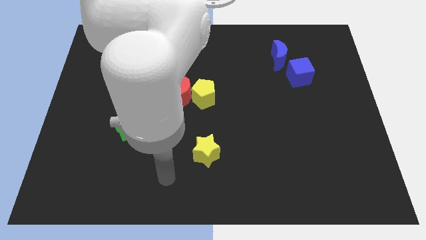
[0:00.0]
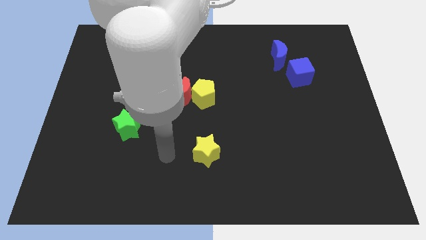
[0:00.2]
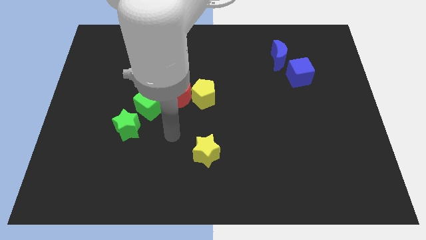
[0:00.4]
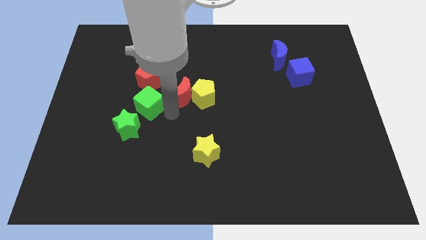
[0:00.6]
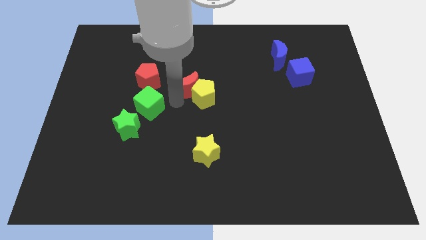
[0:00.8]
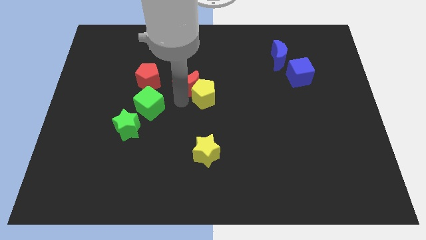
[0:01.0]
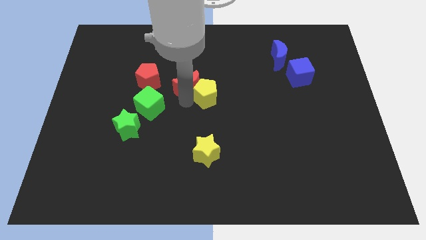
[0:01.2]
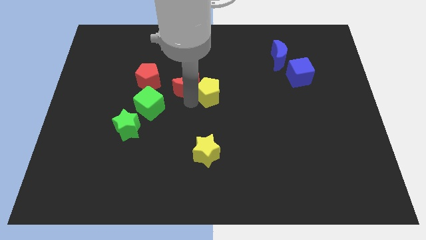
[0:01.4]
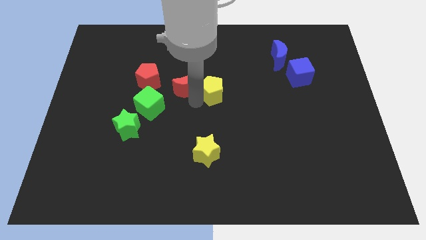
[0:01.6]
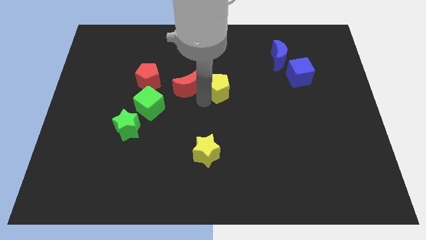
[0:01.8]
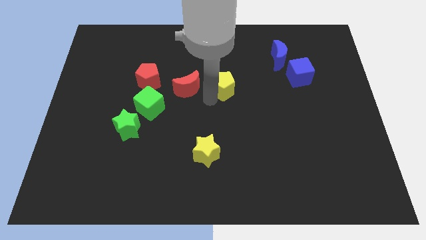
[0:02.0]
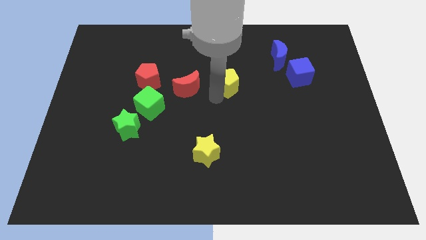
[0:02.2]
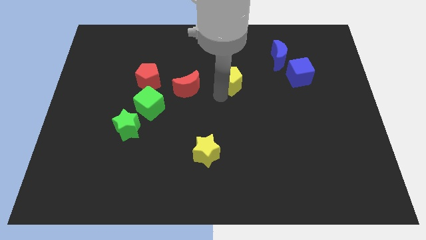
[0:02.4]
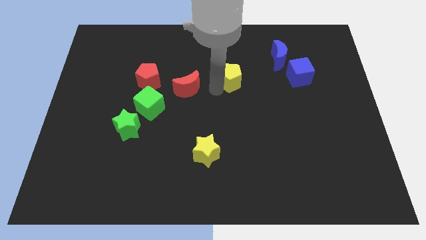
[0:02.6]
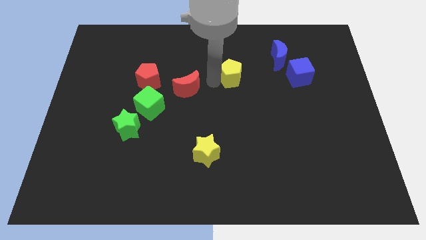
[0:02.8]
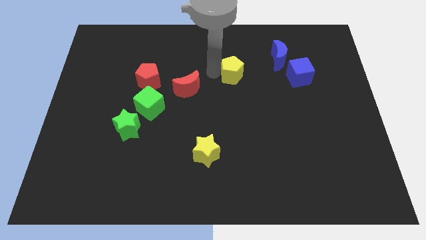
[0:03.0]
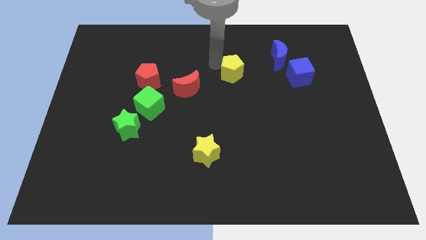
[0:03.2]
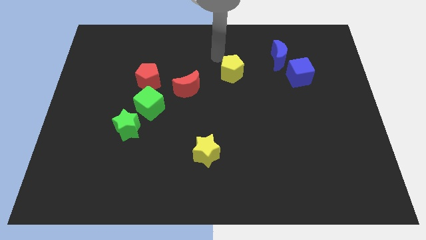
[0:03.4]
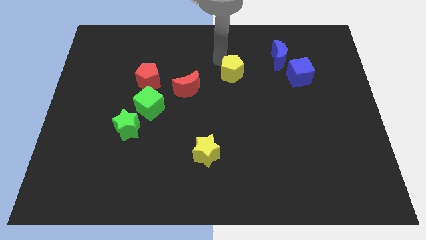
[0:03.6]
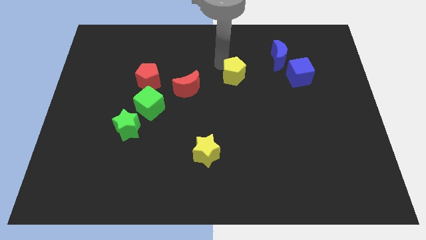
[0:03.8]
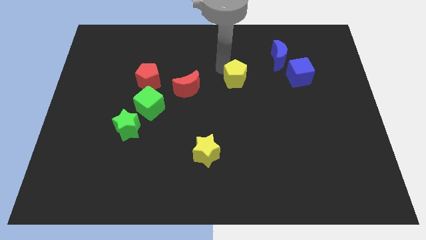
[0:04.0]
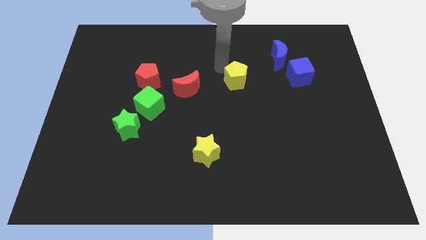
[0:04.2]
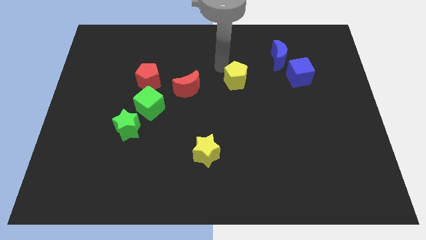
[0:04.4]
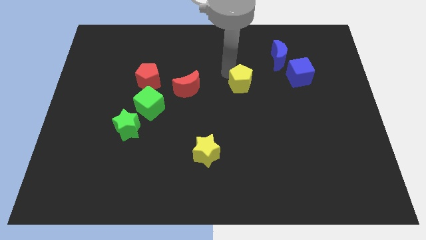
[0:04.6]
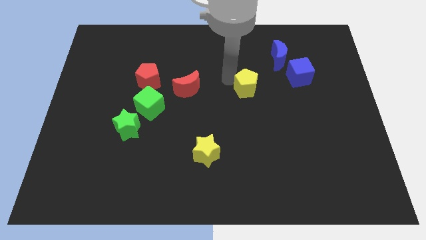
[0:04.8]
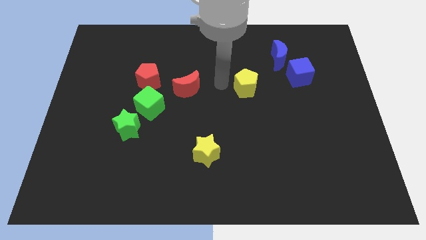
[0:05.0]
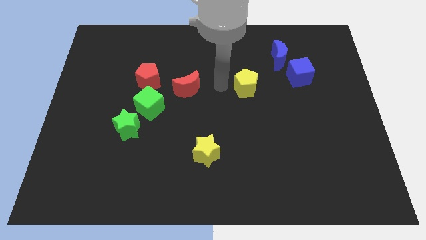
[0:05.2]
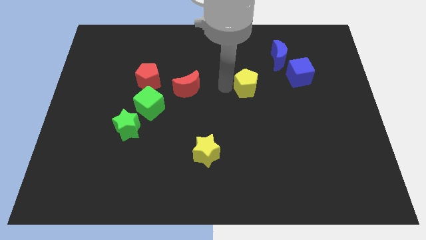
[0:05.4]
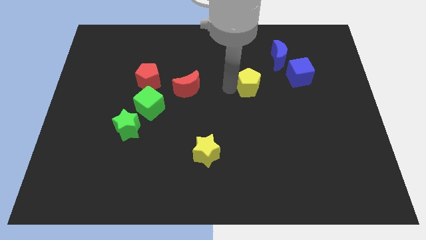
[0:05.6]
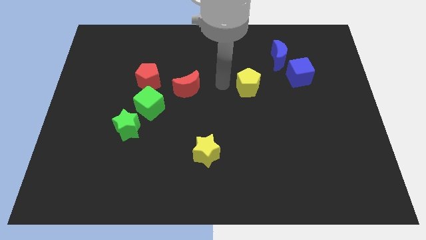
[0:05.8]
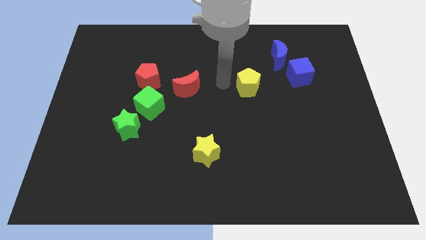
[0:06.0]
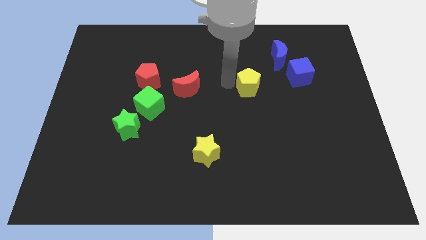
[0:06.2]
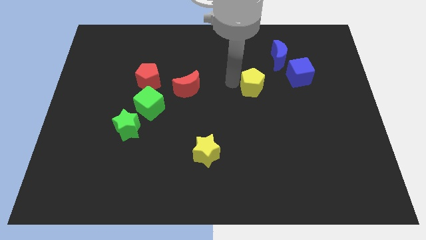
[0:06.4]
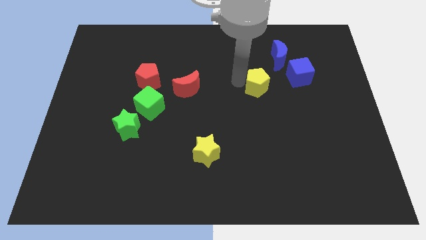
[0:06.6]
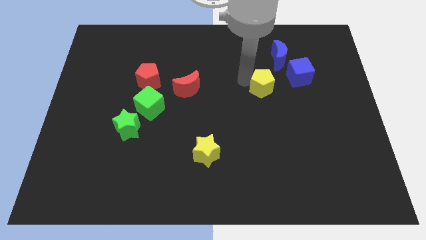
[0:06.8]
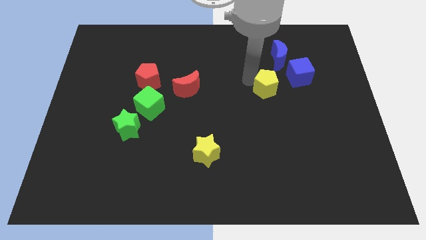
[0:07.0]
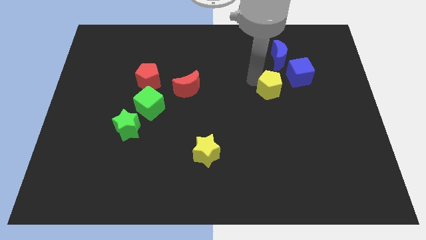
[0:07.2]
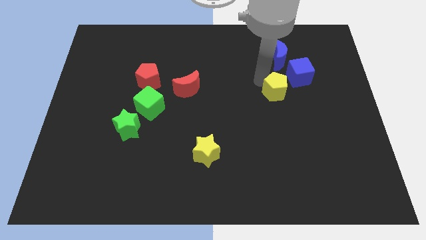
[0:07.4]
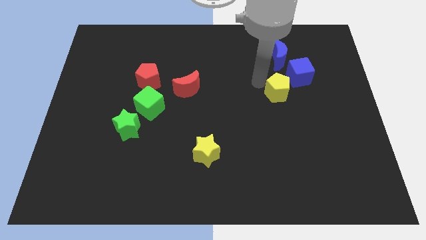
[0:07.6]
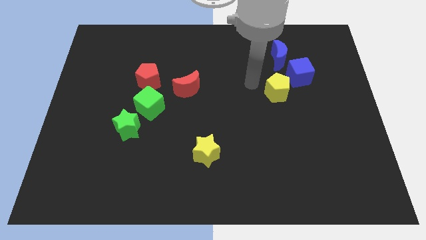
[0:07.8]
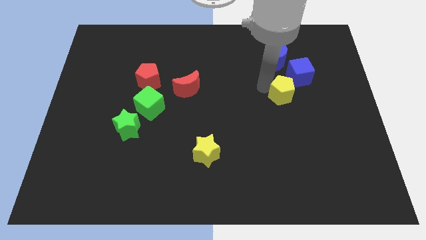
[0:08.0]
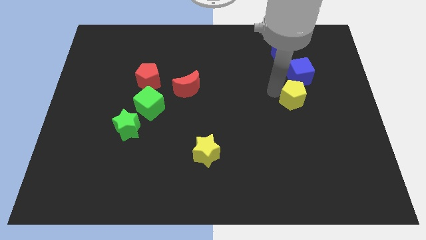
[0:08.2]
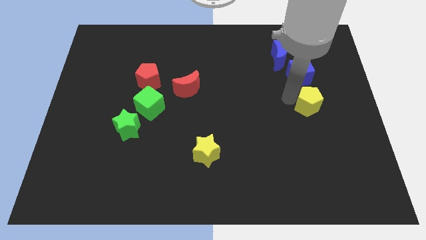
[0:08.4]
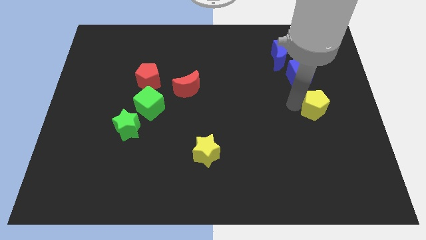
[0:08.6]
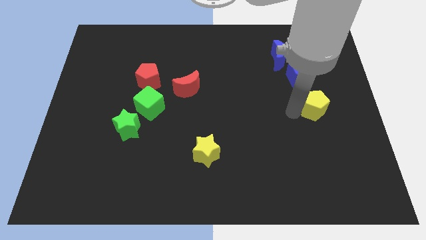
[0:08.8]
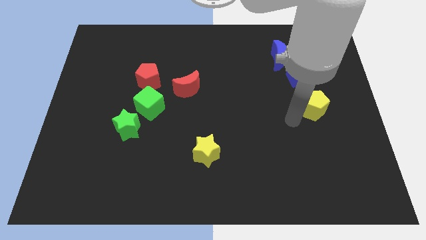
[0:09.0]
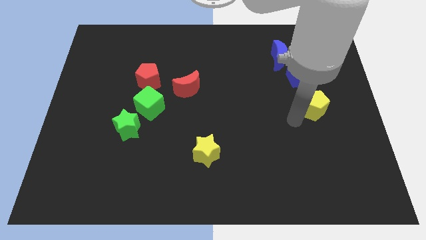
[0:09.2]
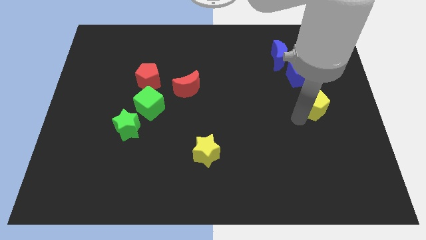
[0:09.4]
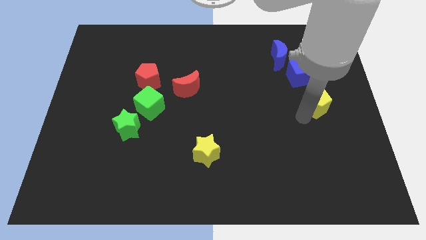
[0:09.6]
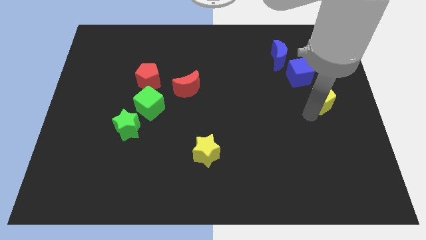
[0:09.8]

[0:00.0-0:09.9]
push the yellow pentagon to the center right

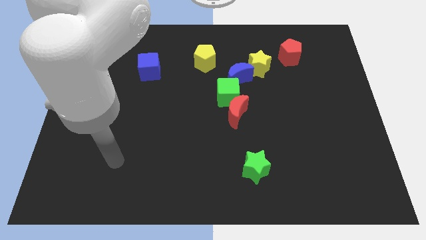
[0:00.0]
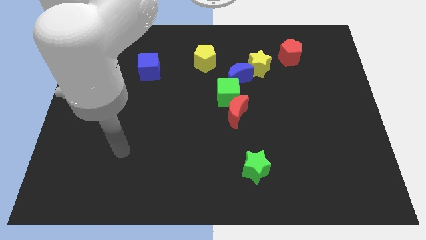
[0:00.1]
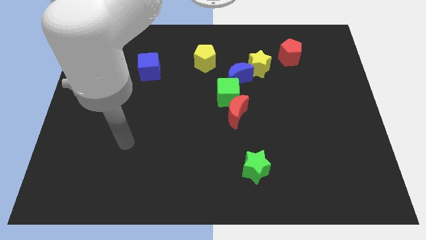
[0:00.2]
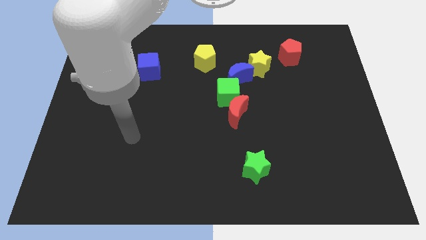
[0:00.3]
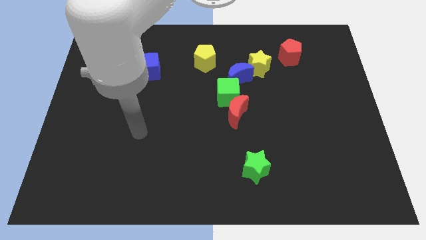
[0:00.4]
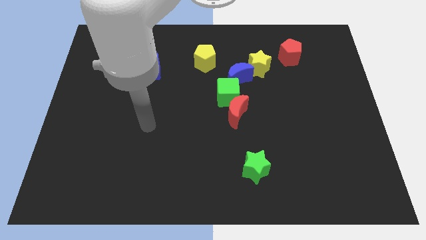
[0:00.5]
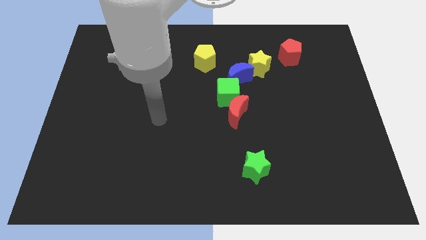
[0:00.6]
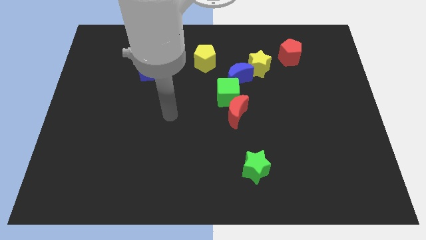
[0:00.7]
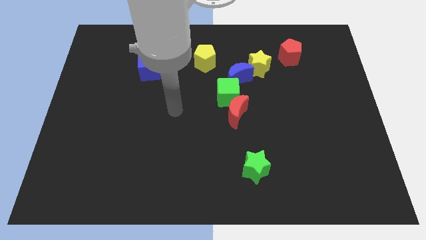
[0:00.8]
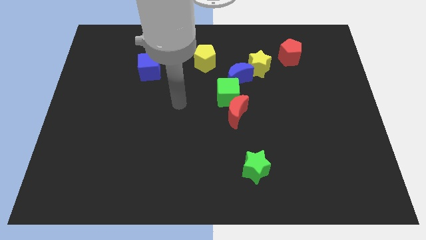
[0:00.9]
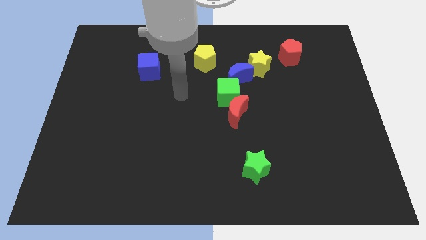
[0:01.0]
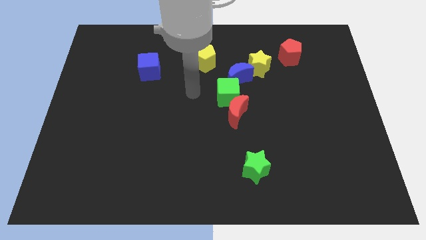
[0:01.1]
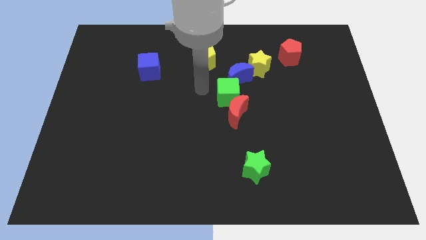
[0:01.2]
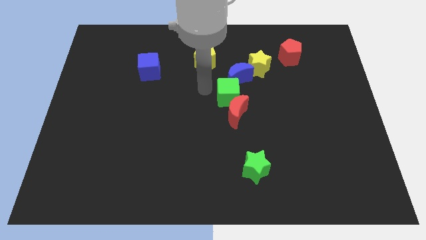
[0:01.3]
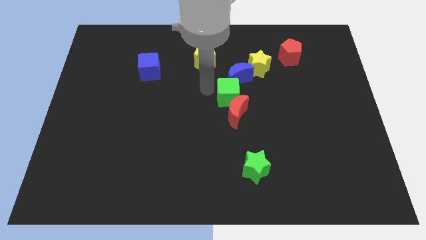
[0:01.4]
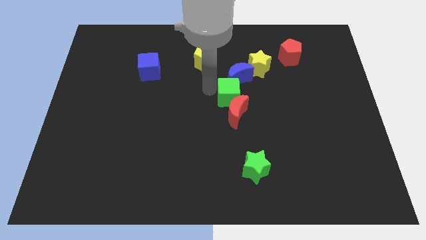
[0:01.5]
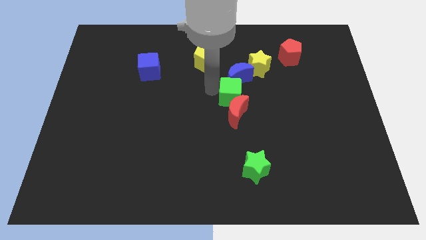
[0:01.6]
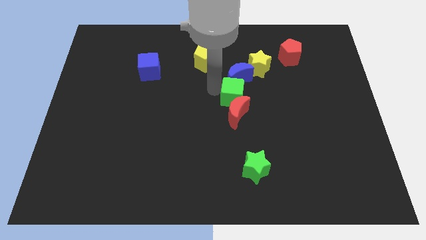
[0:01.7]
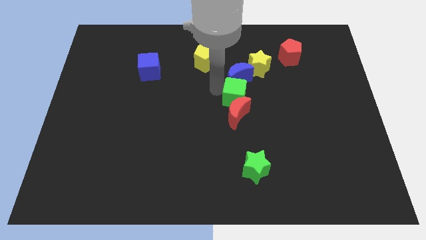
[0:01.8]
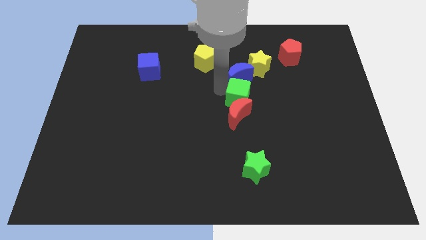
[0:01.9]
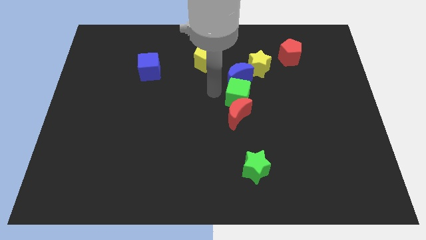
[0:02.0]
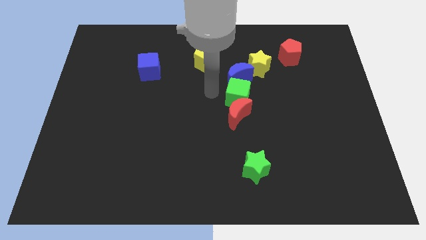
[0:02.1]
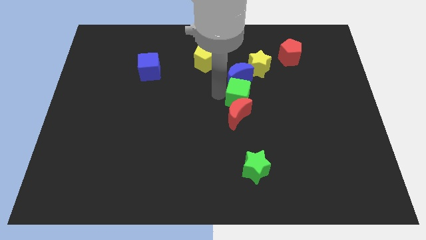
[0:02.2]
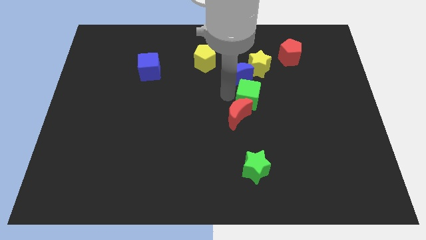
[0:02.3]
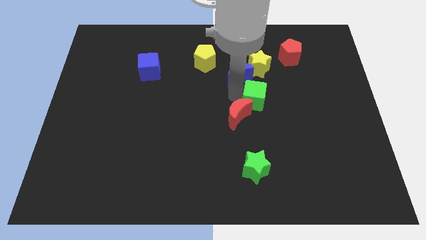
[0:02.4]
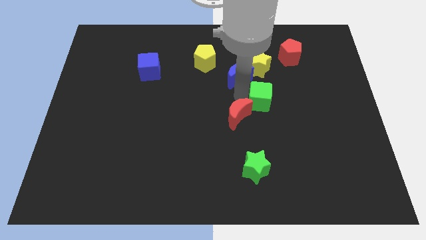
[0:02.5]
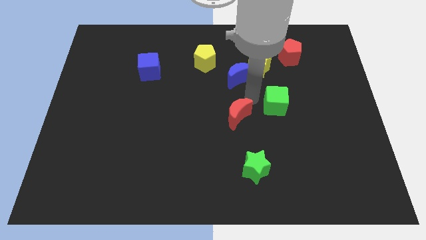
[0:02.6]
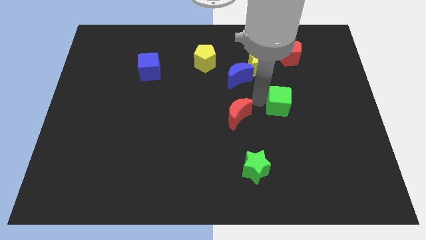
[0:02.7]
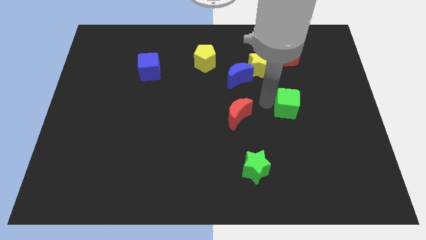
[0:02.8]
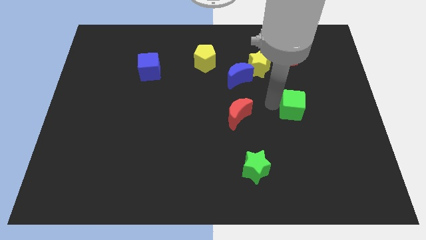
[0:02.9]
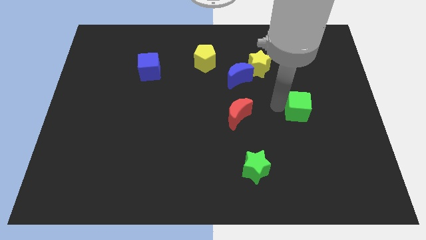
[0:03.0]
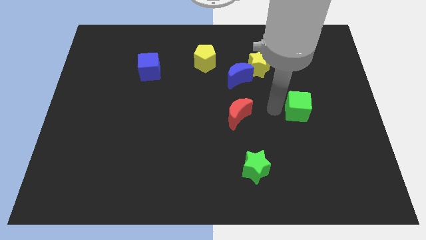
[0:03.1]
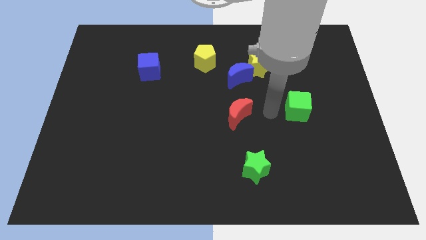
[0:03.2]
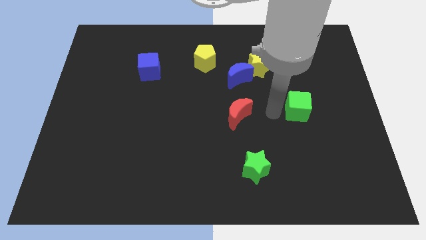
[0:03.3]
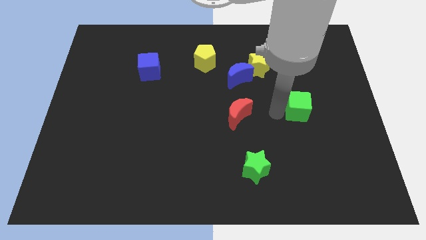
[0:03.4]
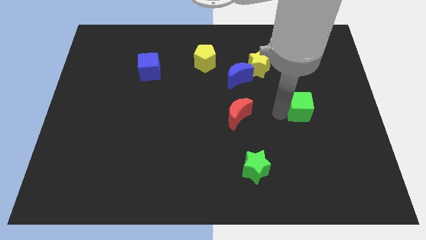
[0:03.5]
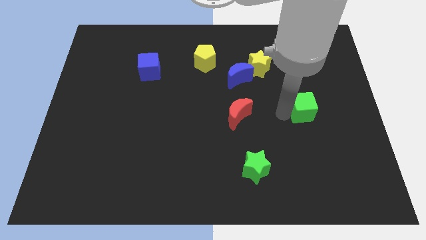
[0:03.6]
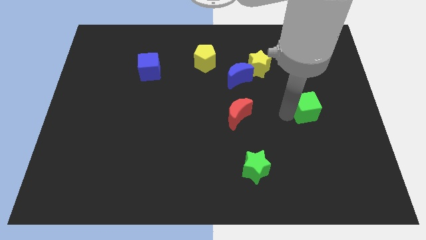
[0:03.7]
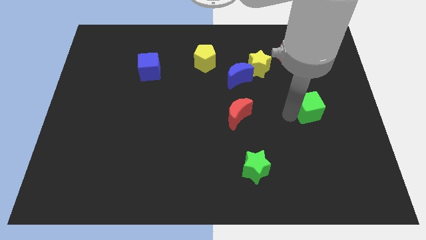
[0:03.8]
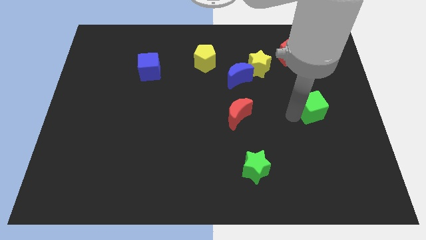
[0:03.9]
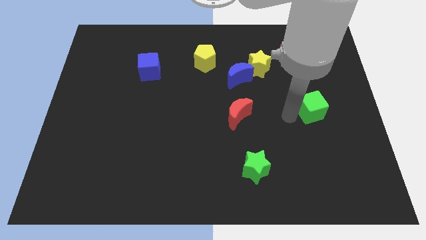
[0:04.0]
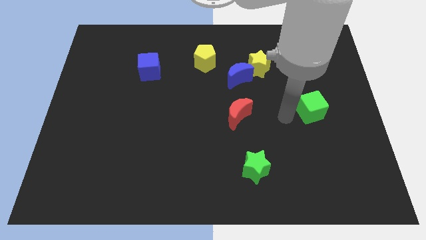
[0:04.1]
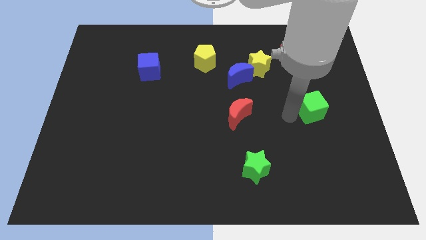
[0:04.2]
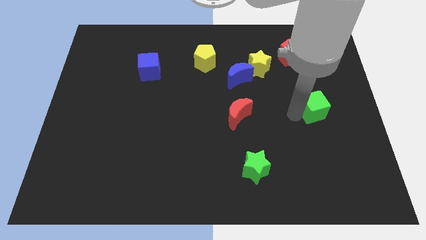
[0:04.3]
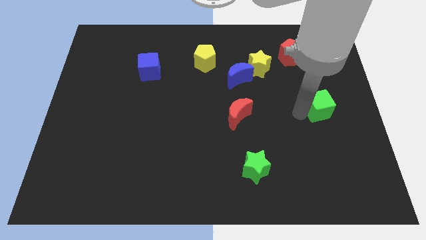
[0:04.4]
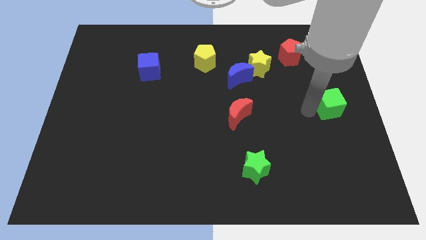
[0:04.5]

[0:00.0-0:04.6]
put the green cube to the right side
